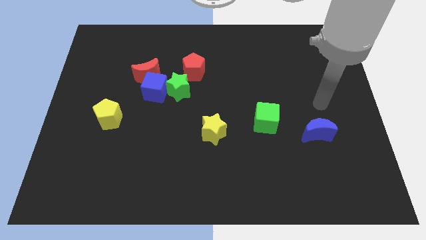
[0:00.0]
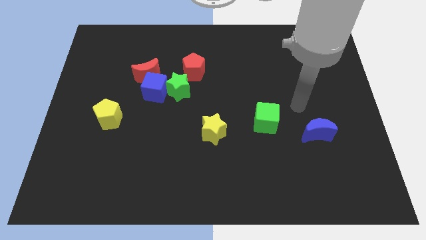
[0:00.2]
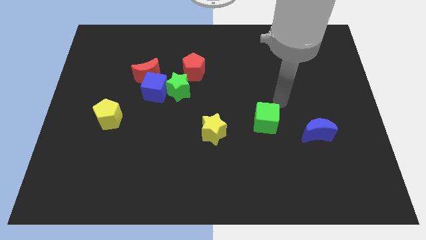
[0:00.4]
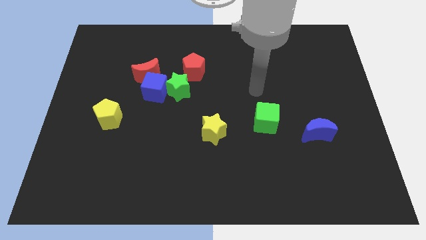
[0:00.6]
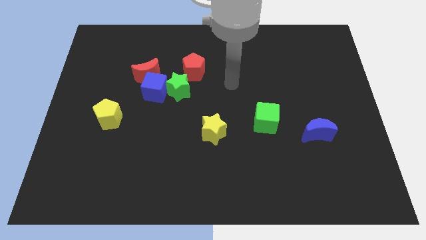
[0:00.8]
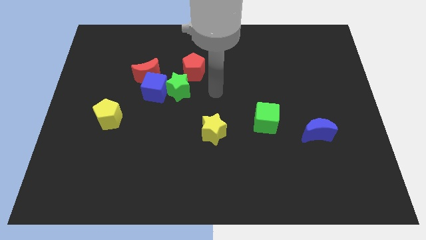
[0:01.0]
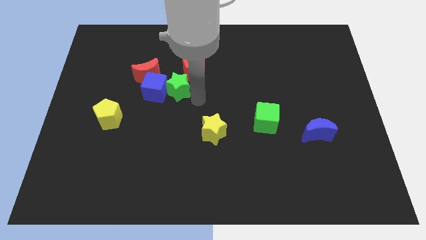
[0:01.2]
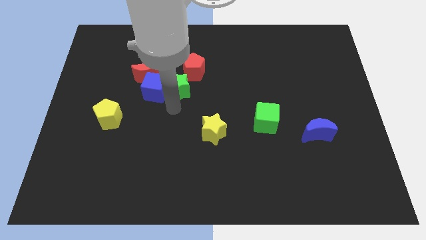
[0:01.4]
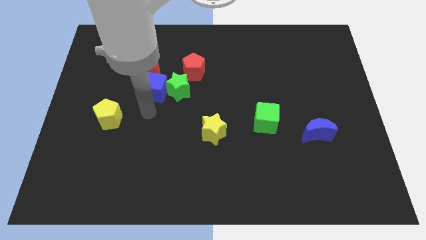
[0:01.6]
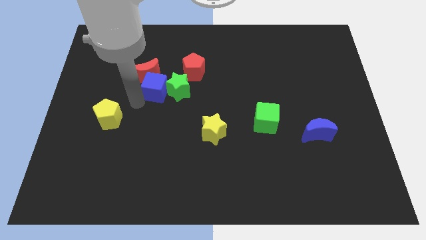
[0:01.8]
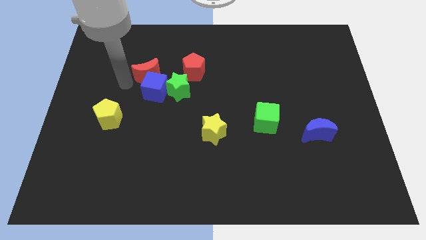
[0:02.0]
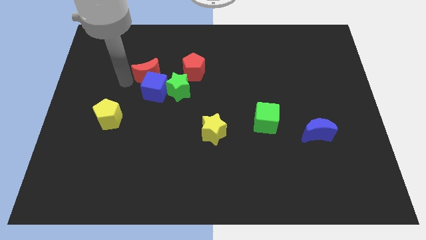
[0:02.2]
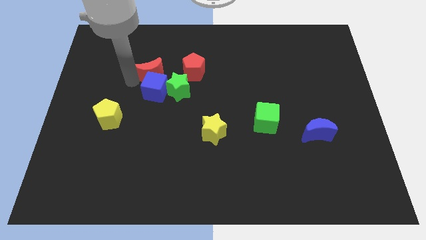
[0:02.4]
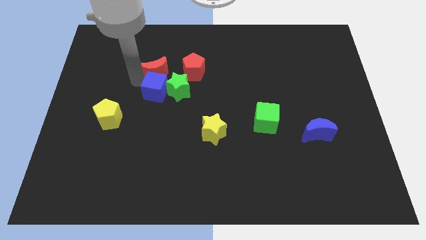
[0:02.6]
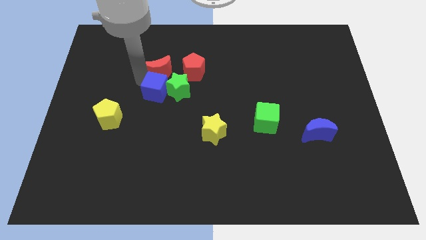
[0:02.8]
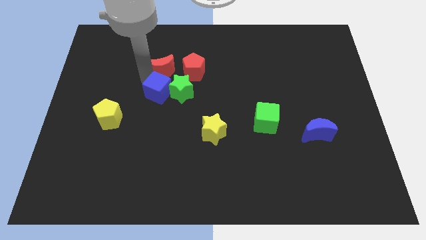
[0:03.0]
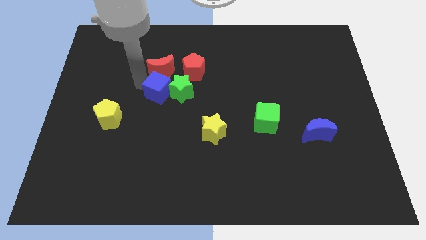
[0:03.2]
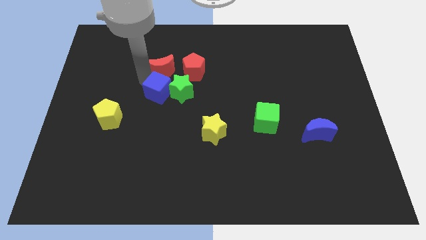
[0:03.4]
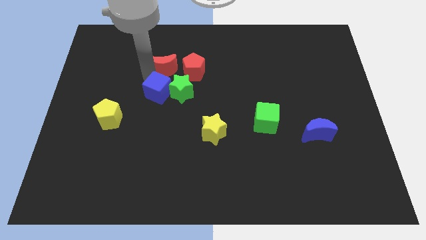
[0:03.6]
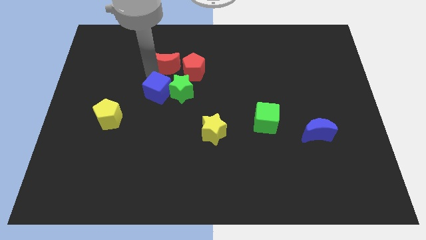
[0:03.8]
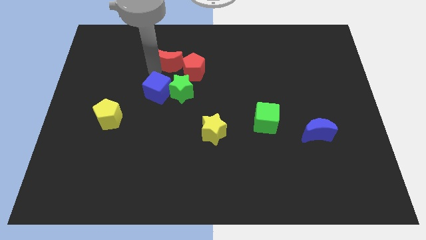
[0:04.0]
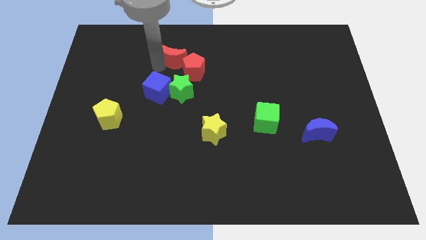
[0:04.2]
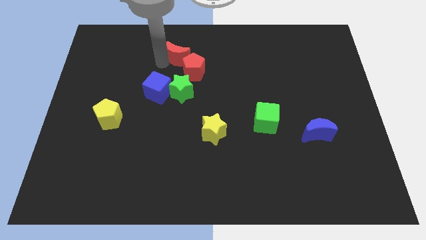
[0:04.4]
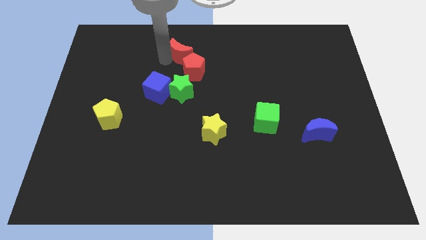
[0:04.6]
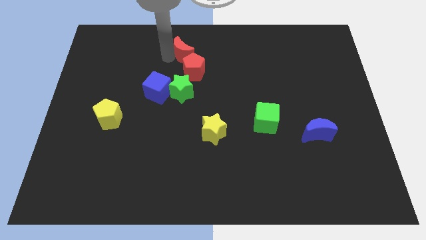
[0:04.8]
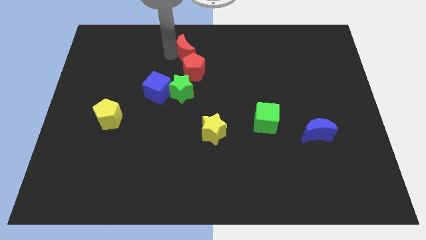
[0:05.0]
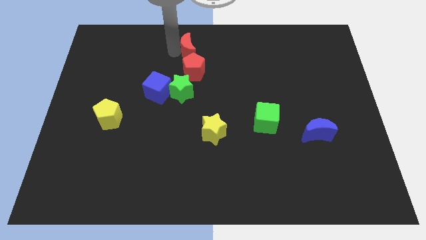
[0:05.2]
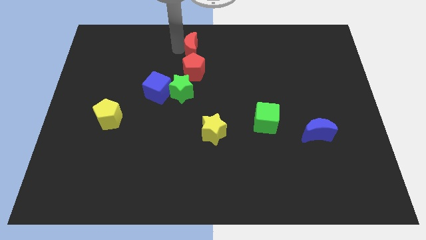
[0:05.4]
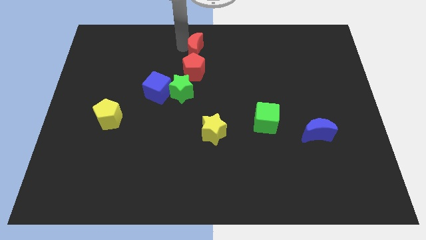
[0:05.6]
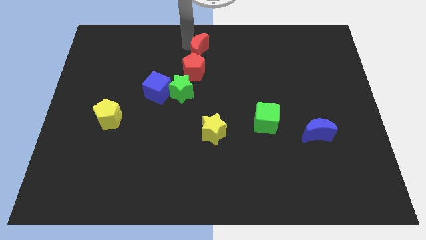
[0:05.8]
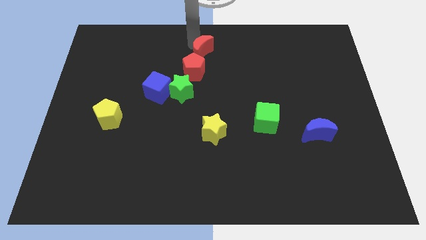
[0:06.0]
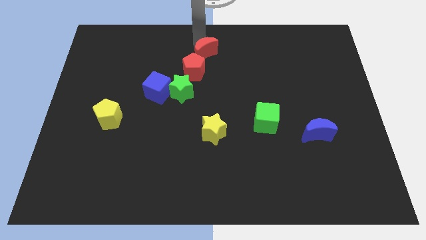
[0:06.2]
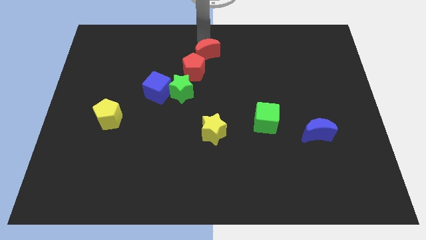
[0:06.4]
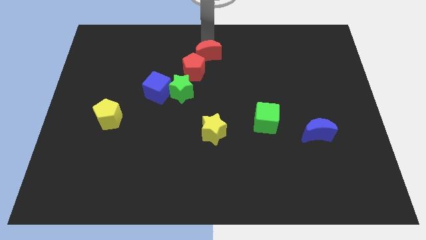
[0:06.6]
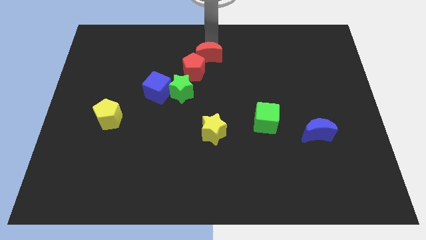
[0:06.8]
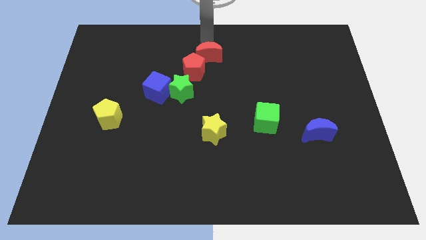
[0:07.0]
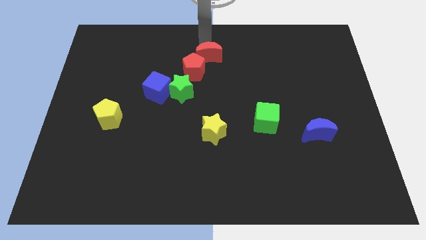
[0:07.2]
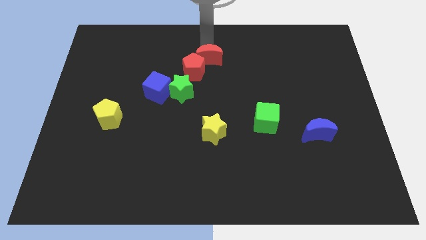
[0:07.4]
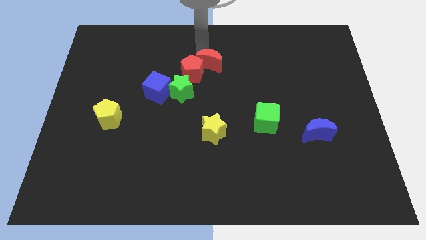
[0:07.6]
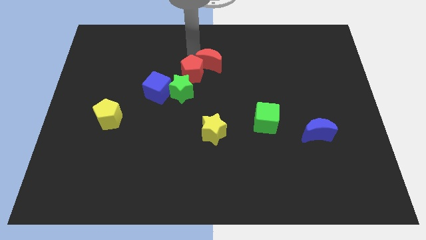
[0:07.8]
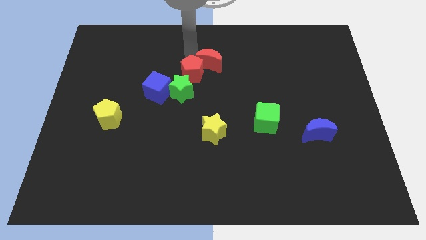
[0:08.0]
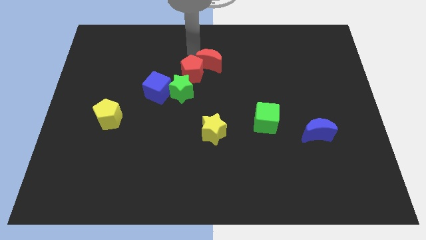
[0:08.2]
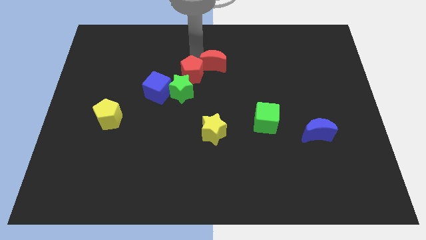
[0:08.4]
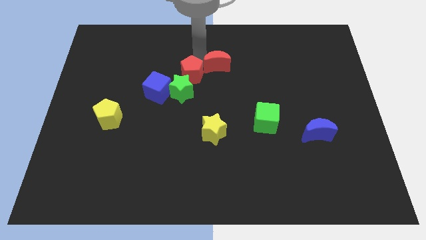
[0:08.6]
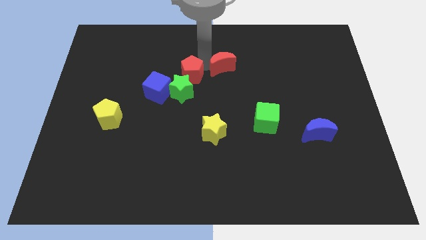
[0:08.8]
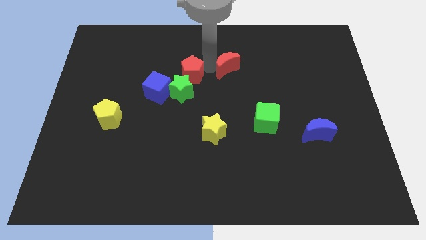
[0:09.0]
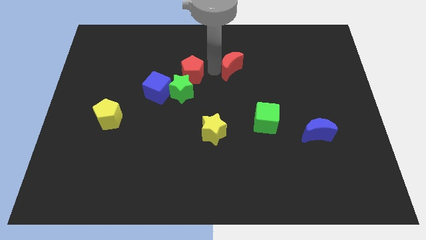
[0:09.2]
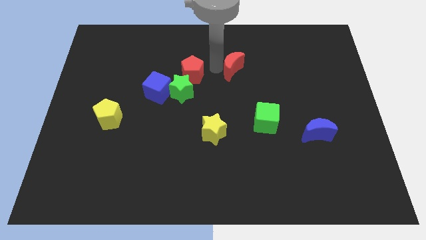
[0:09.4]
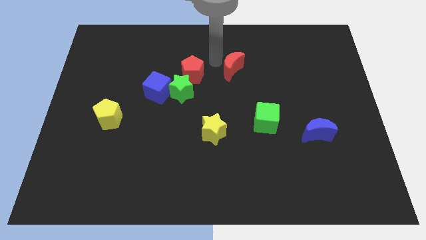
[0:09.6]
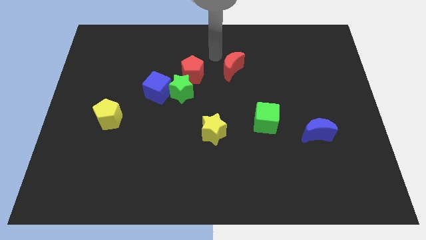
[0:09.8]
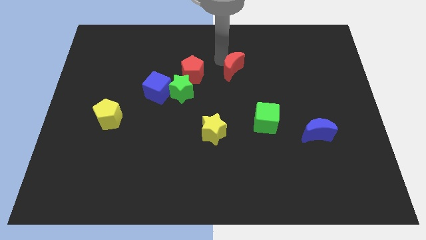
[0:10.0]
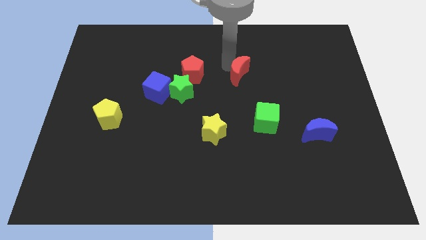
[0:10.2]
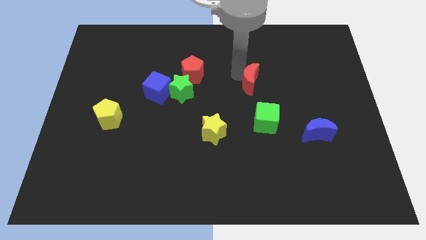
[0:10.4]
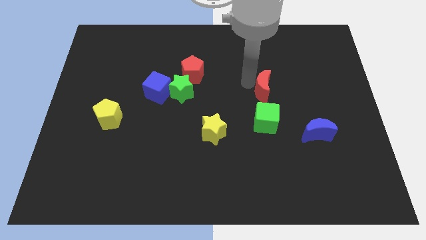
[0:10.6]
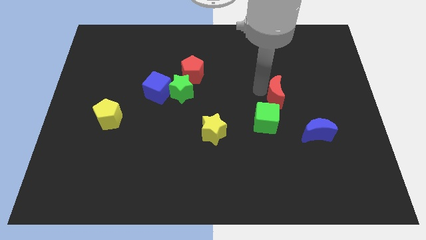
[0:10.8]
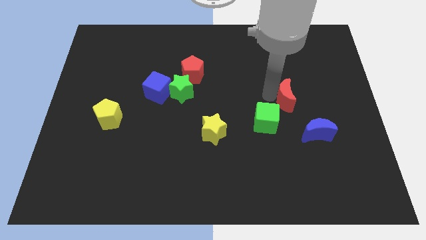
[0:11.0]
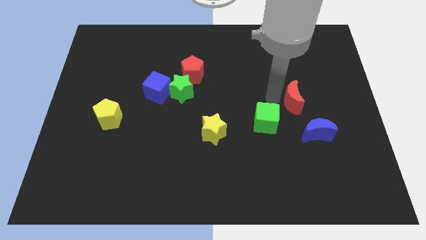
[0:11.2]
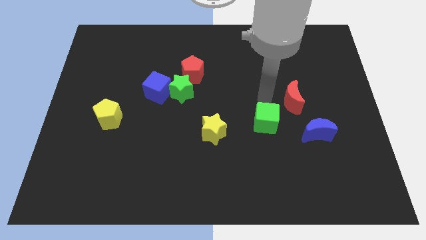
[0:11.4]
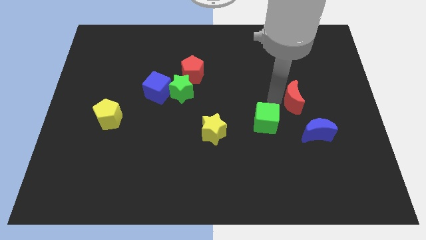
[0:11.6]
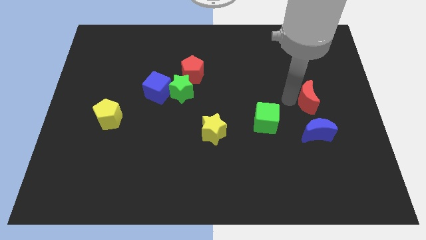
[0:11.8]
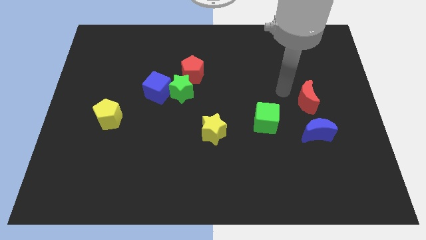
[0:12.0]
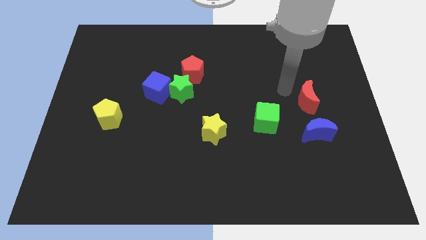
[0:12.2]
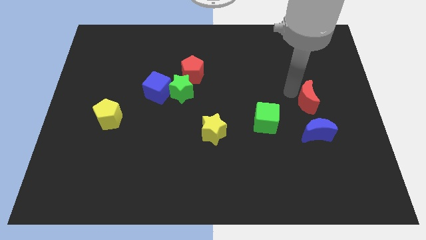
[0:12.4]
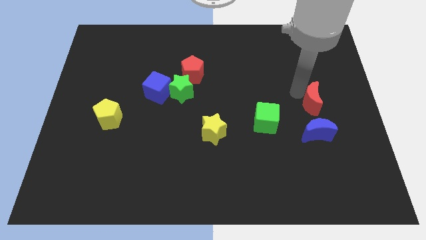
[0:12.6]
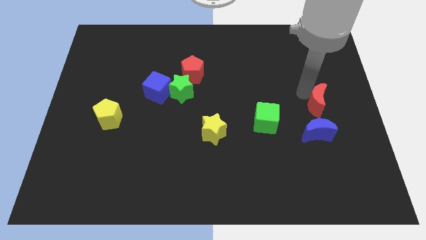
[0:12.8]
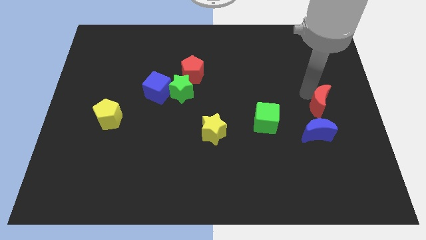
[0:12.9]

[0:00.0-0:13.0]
slide the red moon to the top right side of the blue moon

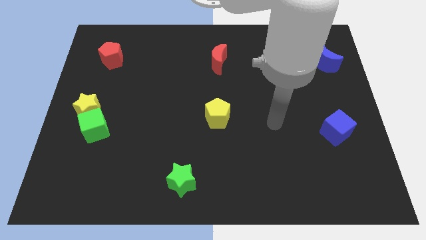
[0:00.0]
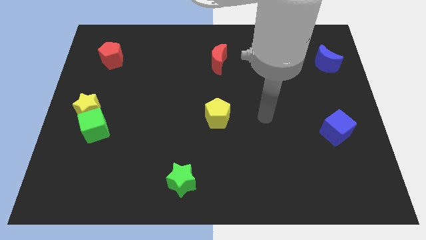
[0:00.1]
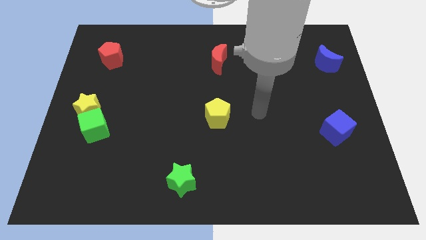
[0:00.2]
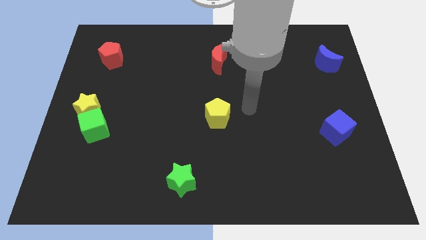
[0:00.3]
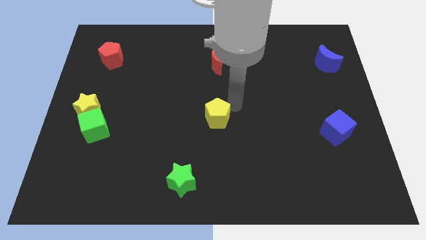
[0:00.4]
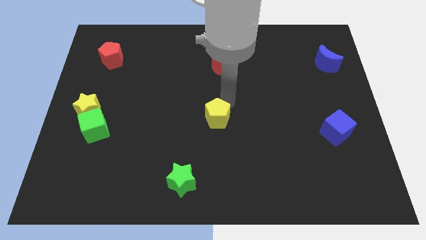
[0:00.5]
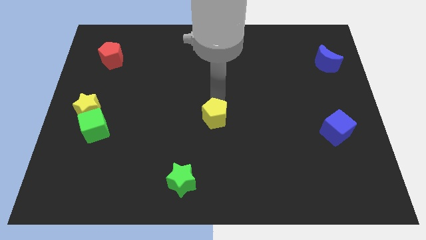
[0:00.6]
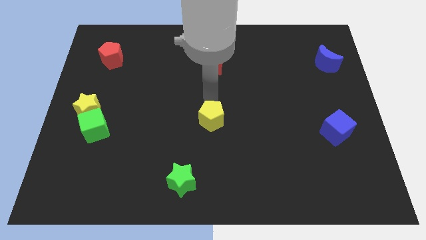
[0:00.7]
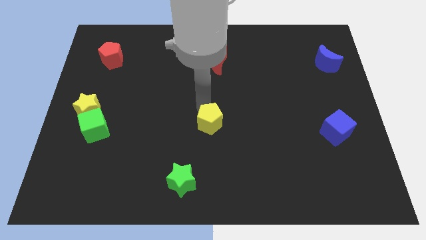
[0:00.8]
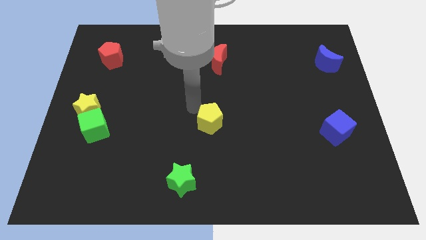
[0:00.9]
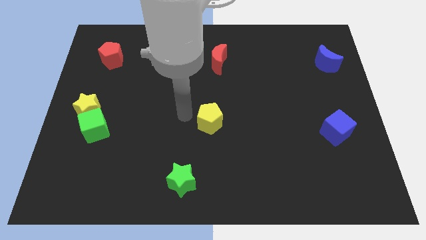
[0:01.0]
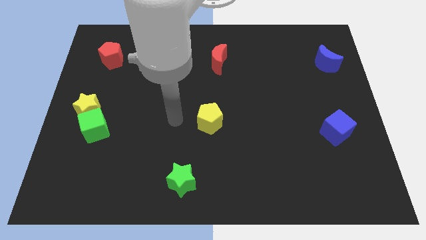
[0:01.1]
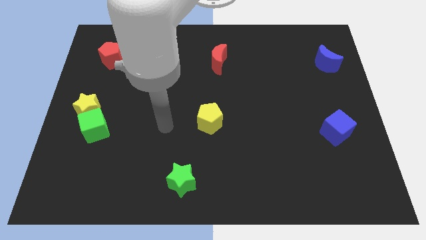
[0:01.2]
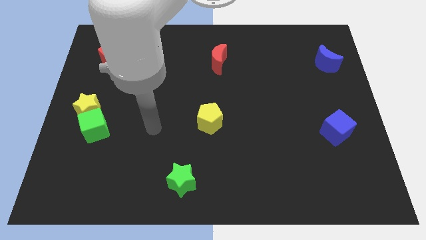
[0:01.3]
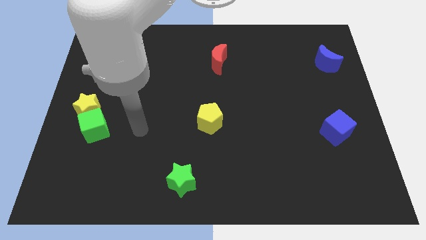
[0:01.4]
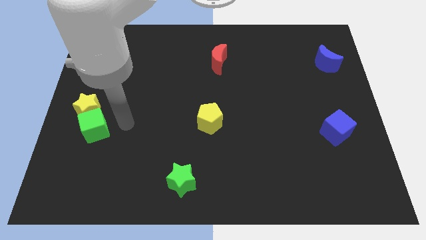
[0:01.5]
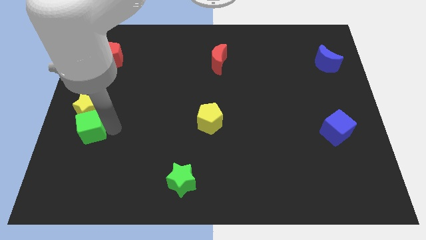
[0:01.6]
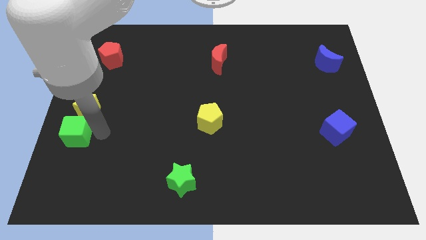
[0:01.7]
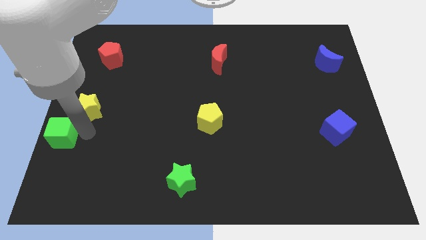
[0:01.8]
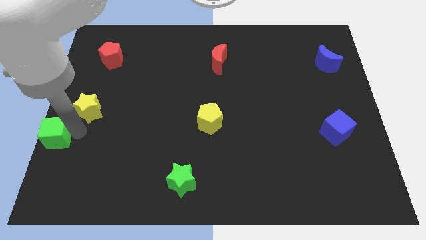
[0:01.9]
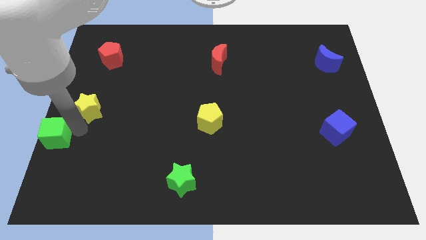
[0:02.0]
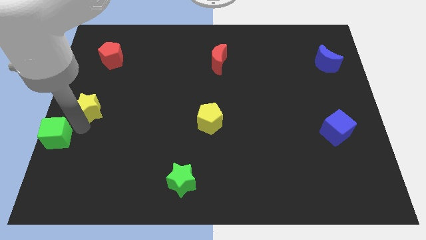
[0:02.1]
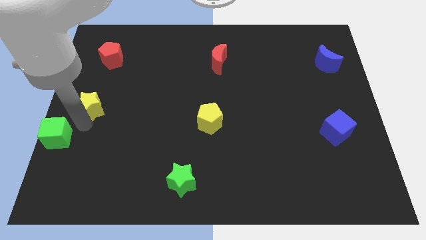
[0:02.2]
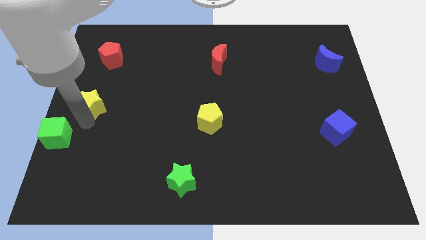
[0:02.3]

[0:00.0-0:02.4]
push the yellow star to the bottom side of the red pentagon
